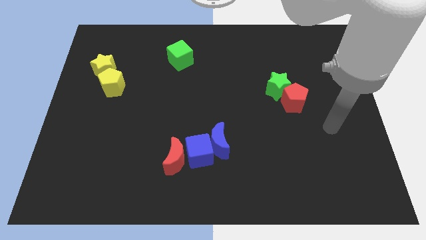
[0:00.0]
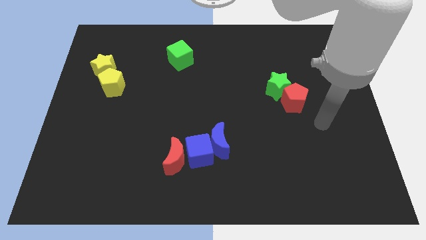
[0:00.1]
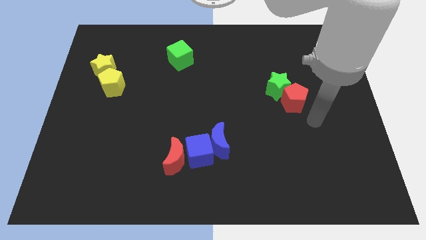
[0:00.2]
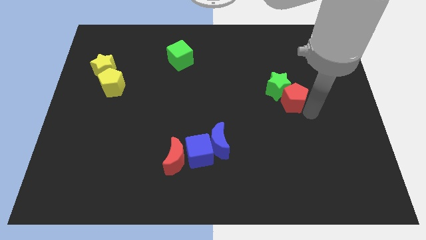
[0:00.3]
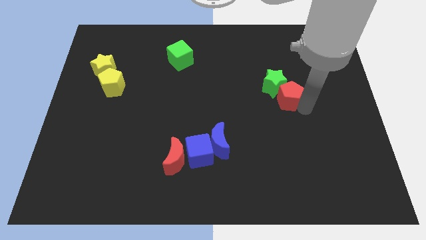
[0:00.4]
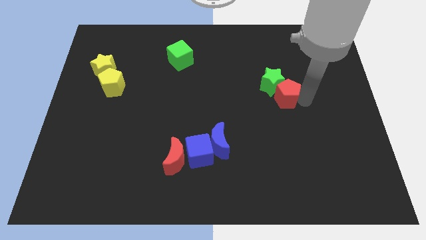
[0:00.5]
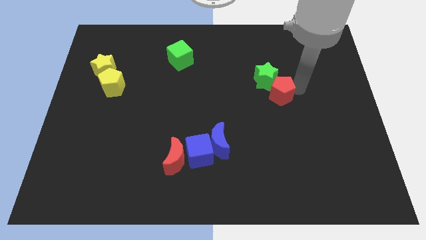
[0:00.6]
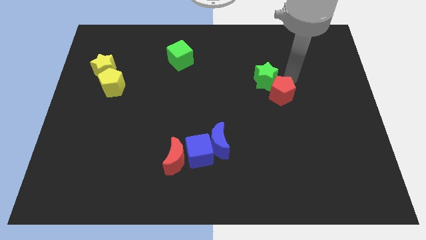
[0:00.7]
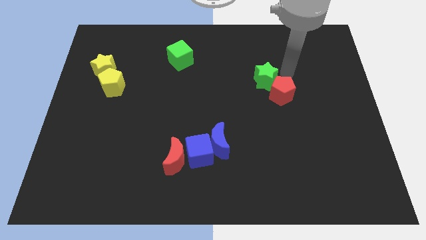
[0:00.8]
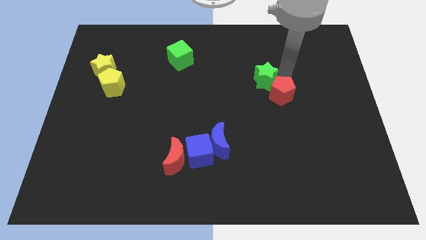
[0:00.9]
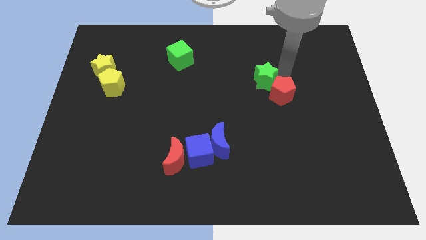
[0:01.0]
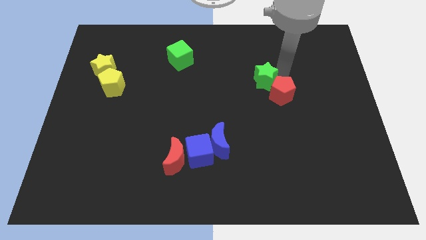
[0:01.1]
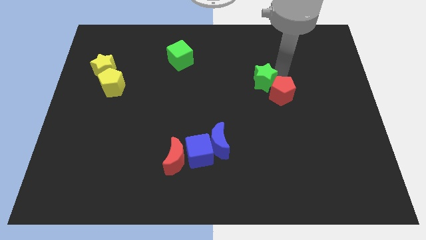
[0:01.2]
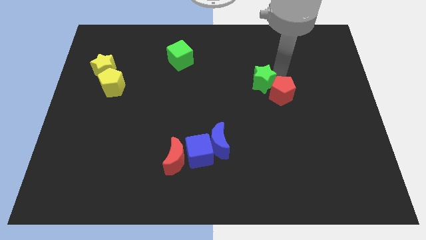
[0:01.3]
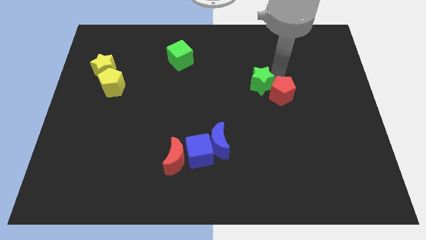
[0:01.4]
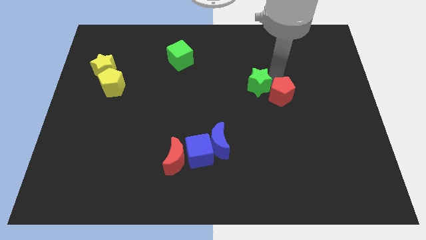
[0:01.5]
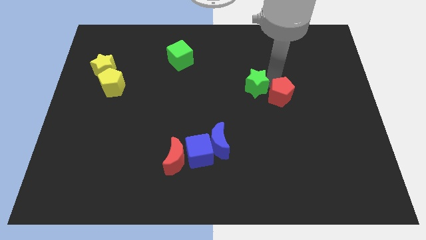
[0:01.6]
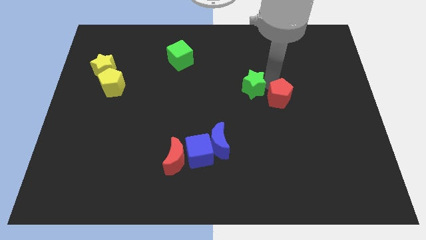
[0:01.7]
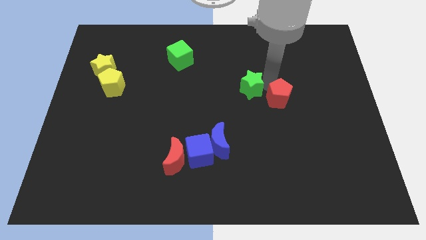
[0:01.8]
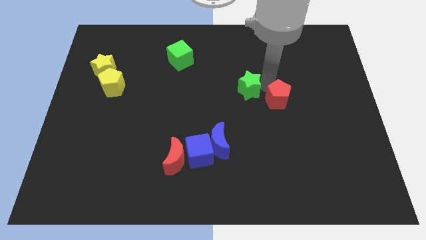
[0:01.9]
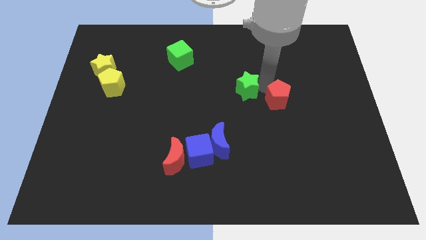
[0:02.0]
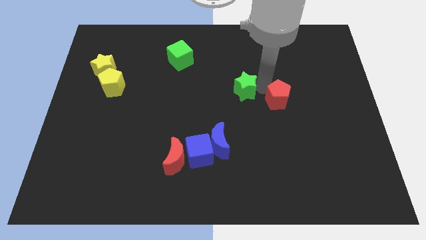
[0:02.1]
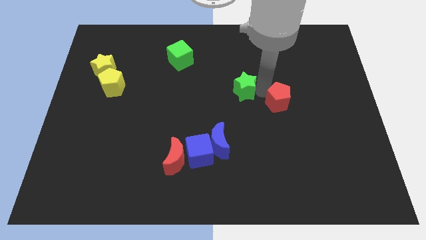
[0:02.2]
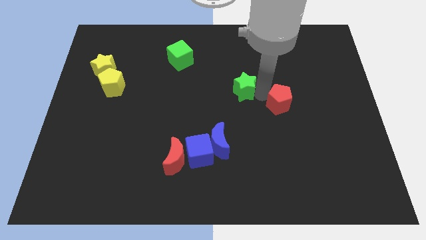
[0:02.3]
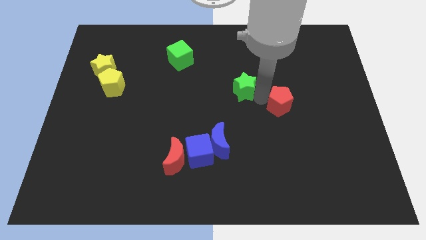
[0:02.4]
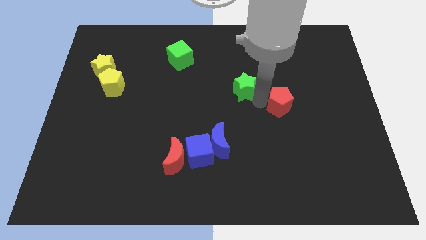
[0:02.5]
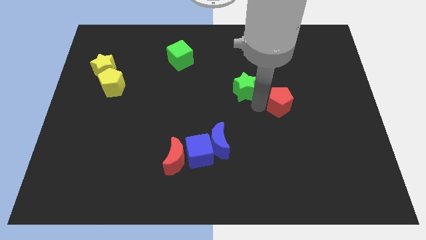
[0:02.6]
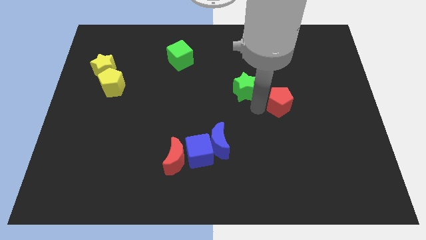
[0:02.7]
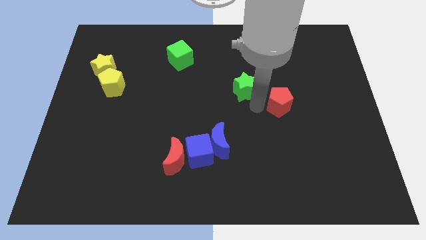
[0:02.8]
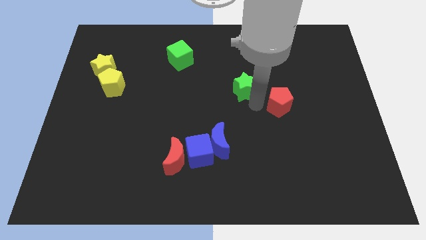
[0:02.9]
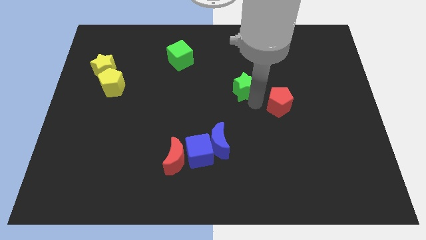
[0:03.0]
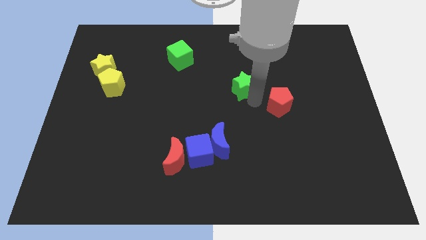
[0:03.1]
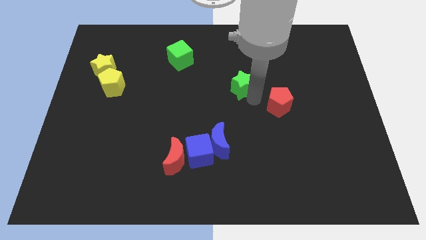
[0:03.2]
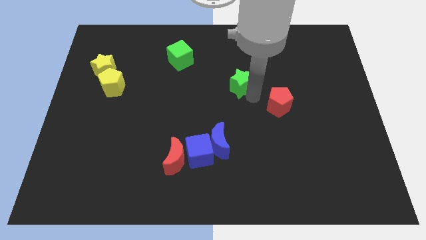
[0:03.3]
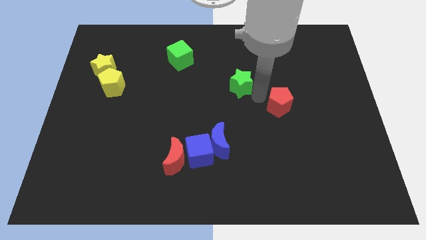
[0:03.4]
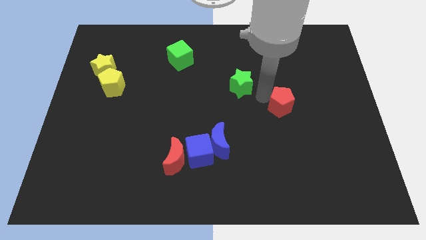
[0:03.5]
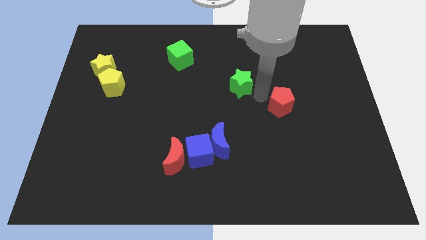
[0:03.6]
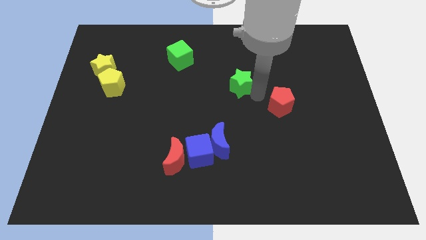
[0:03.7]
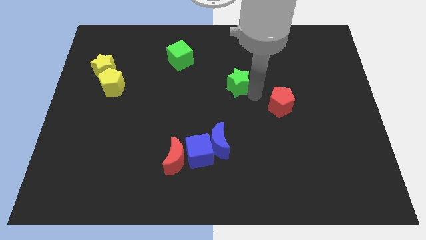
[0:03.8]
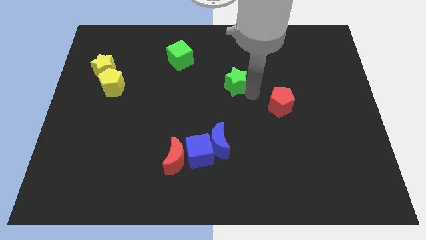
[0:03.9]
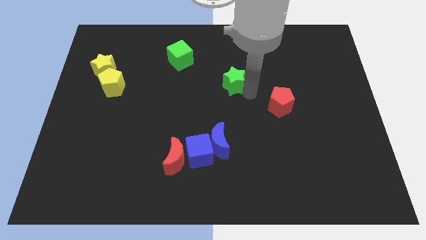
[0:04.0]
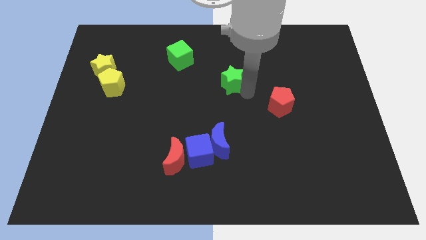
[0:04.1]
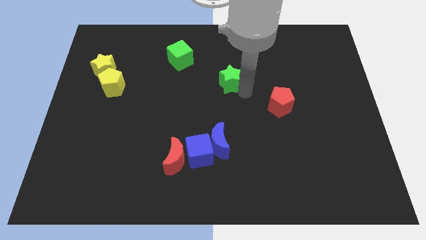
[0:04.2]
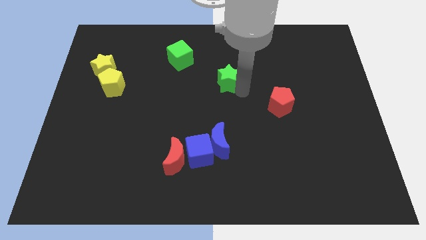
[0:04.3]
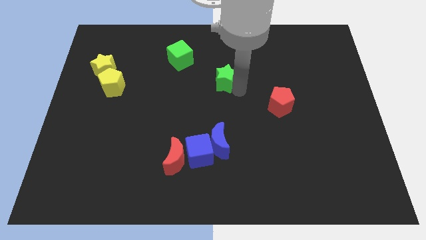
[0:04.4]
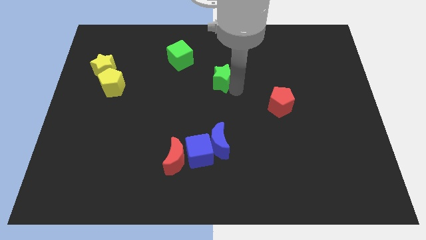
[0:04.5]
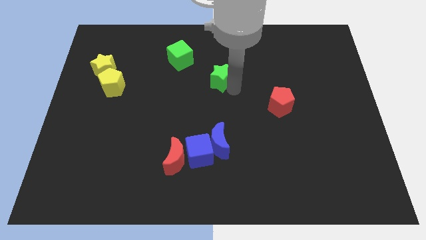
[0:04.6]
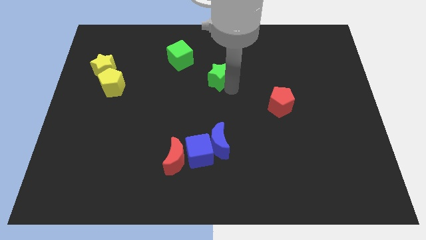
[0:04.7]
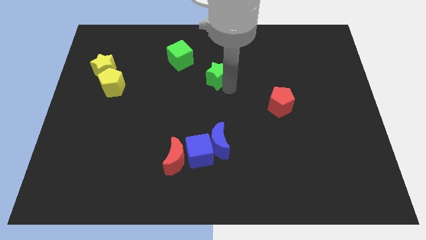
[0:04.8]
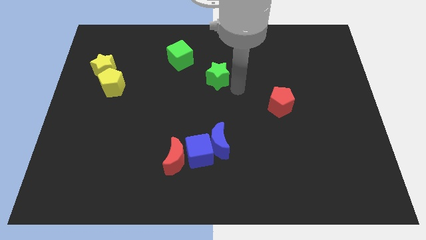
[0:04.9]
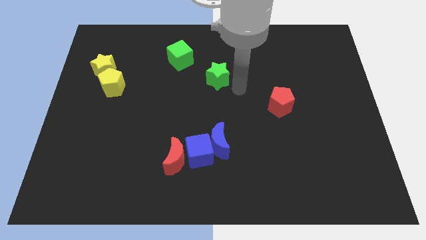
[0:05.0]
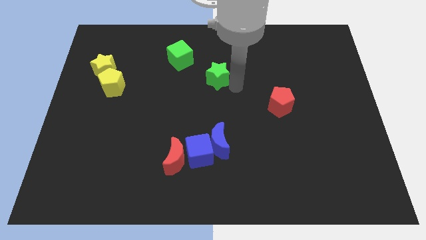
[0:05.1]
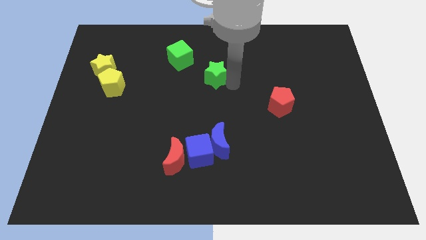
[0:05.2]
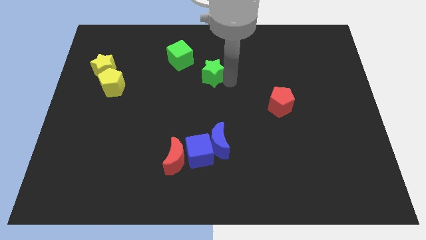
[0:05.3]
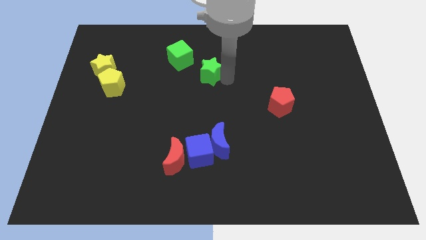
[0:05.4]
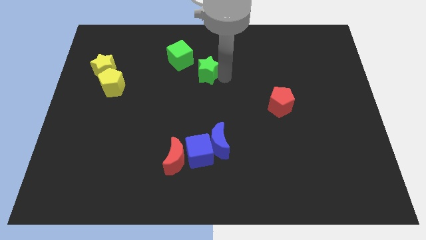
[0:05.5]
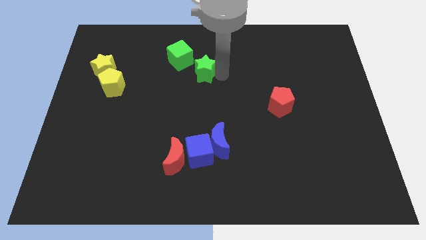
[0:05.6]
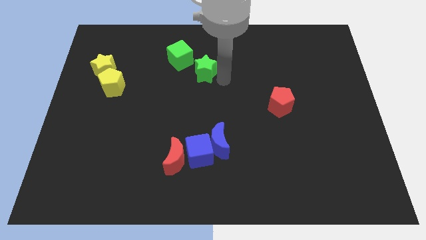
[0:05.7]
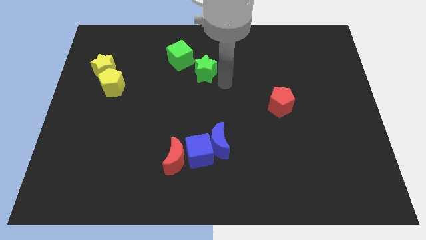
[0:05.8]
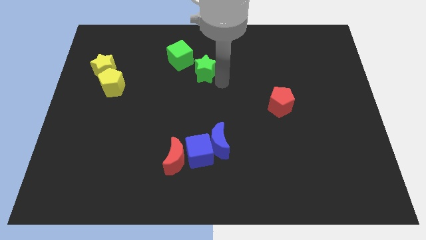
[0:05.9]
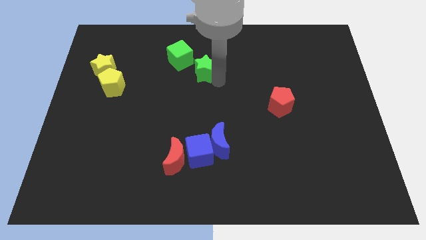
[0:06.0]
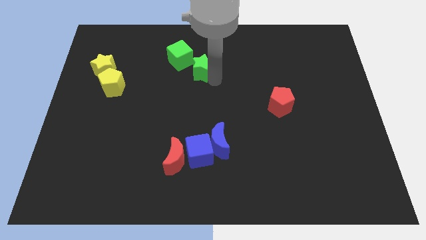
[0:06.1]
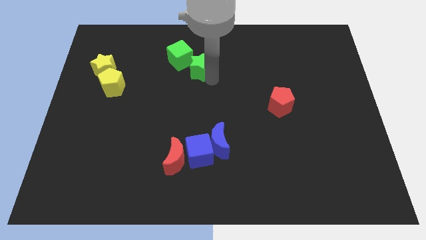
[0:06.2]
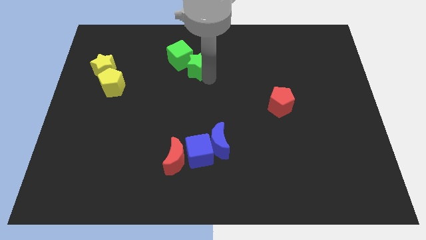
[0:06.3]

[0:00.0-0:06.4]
move the green star next to the green cube

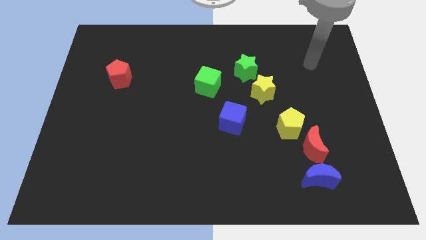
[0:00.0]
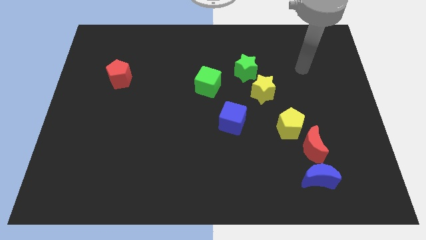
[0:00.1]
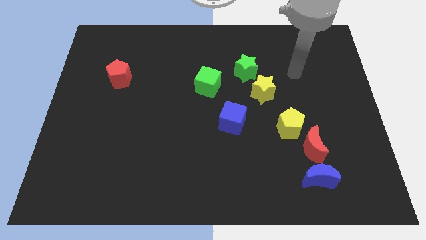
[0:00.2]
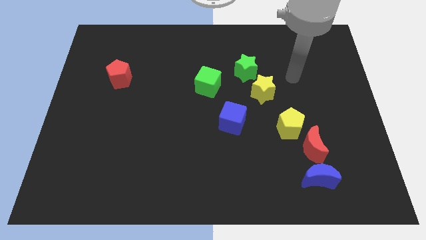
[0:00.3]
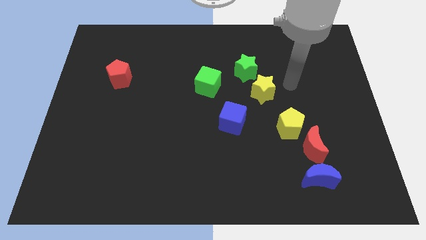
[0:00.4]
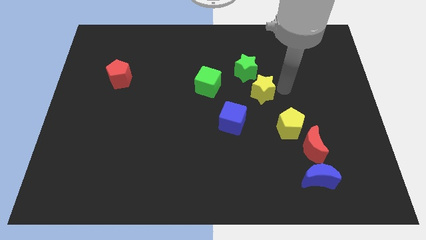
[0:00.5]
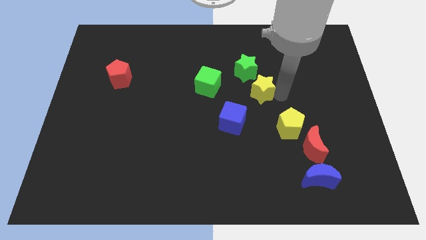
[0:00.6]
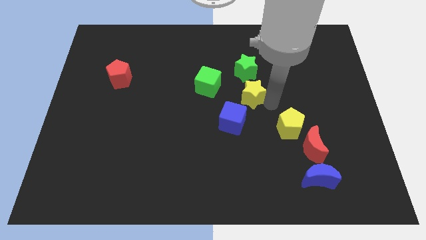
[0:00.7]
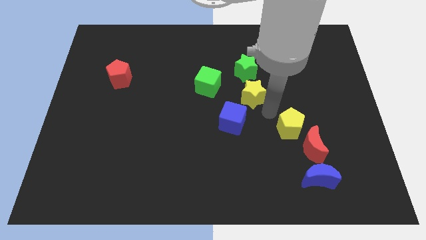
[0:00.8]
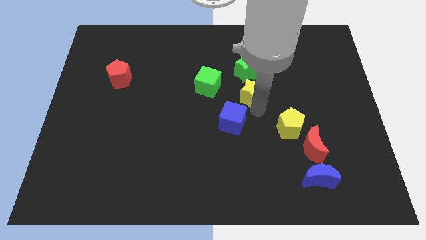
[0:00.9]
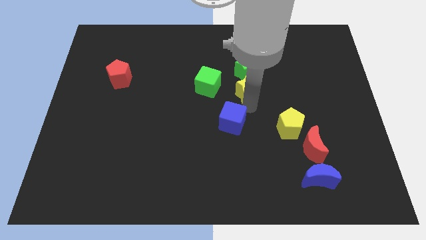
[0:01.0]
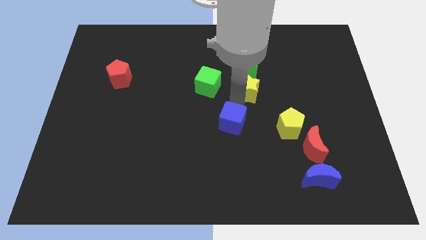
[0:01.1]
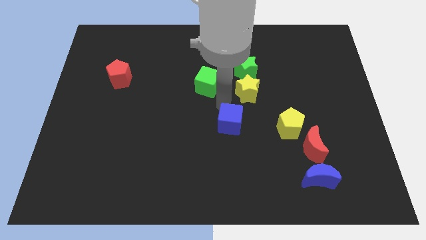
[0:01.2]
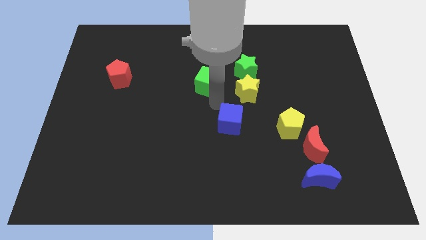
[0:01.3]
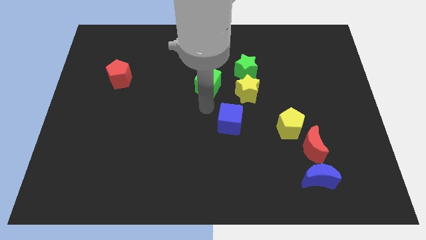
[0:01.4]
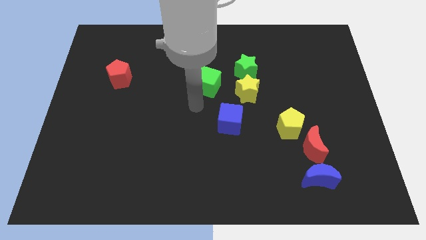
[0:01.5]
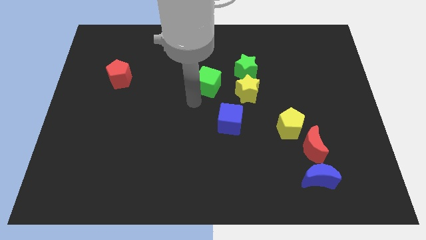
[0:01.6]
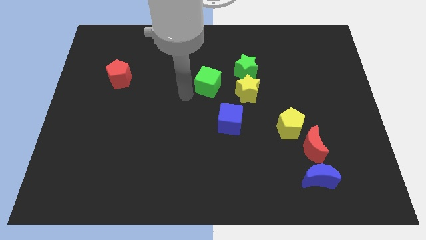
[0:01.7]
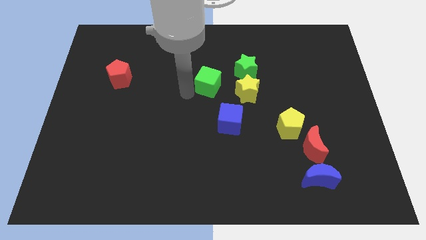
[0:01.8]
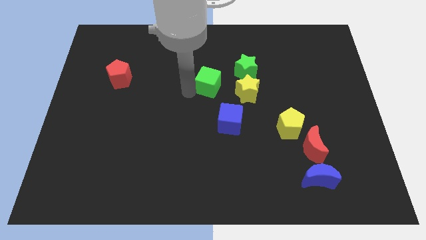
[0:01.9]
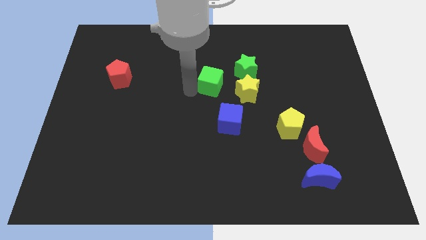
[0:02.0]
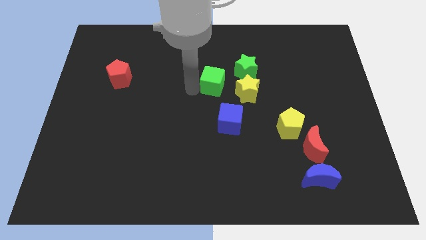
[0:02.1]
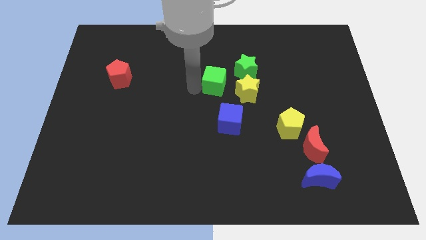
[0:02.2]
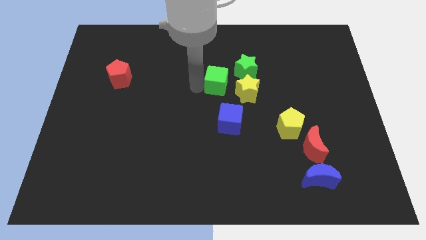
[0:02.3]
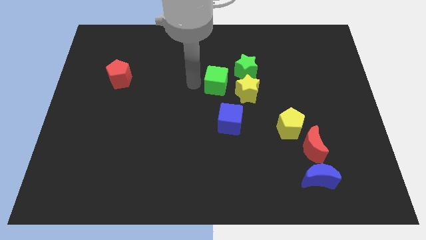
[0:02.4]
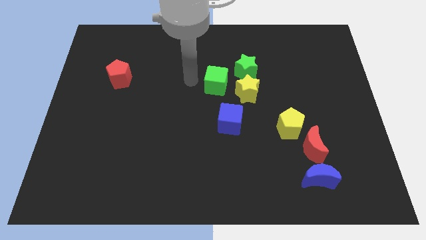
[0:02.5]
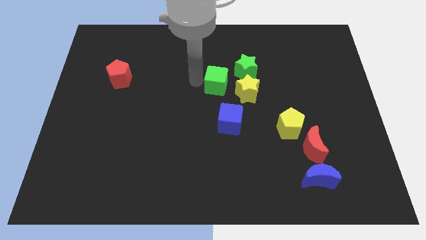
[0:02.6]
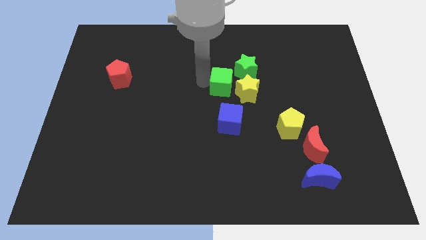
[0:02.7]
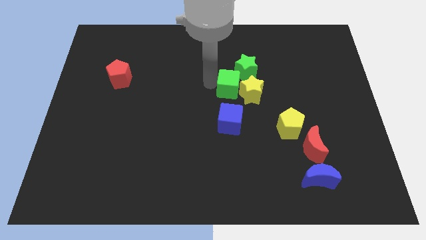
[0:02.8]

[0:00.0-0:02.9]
put the green cube close to the yellow star
